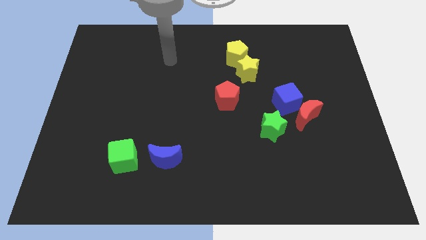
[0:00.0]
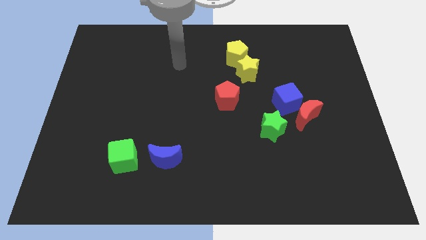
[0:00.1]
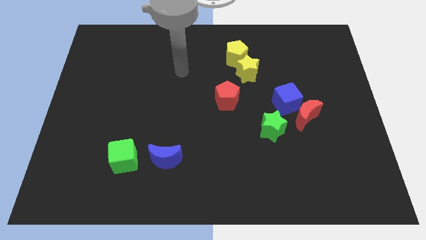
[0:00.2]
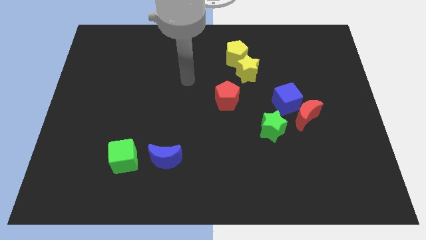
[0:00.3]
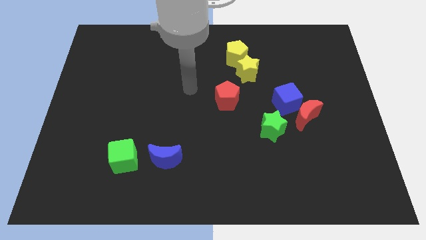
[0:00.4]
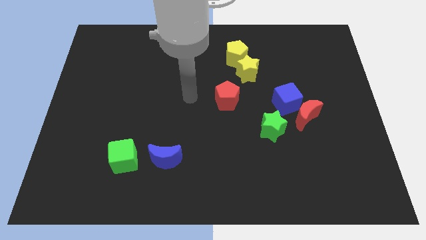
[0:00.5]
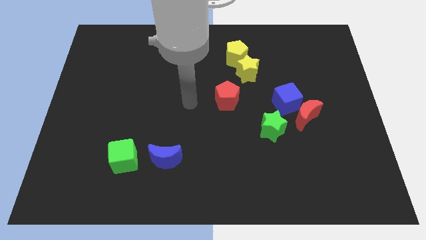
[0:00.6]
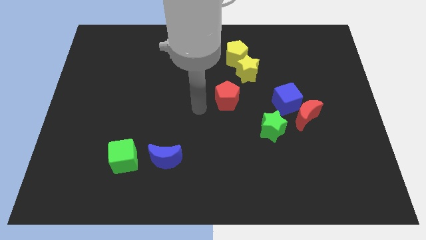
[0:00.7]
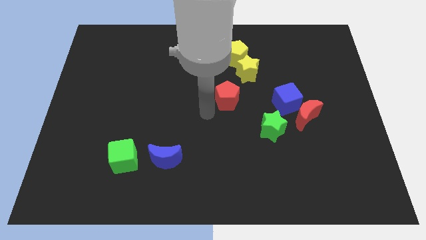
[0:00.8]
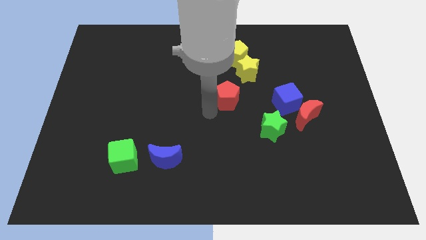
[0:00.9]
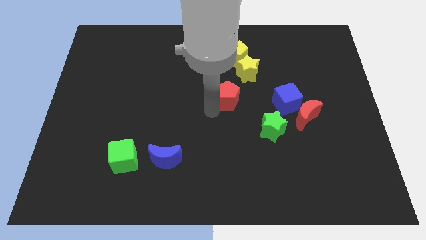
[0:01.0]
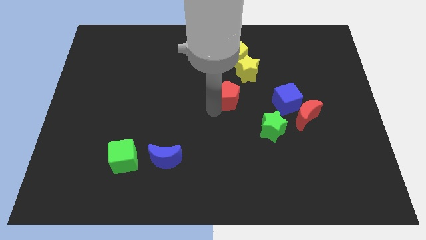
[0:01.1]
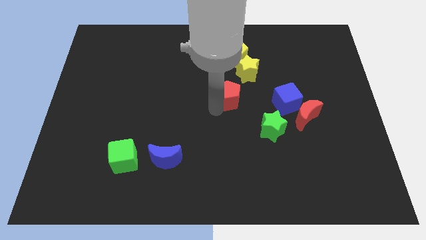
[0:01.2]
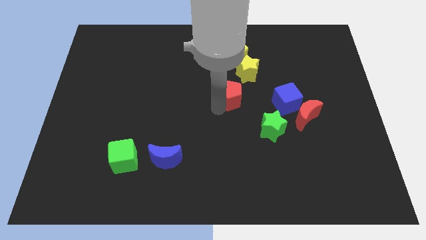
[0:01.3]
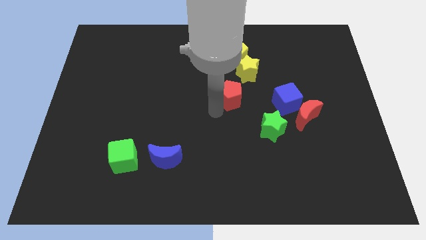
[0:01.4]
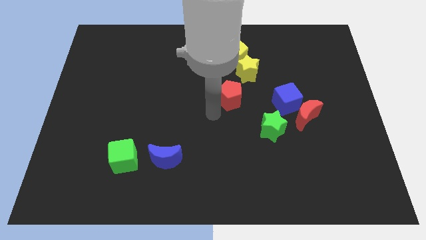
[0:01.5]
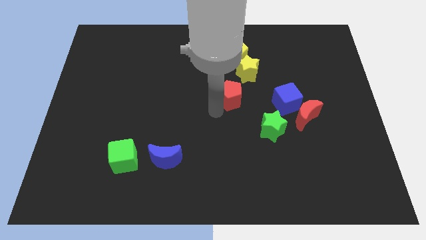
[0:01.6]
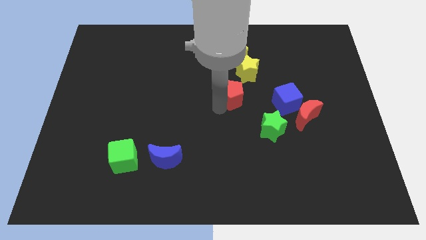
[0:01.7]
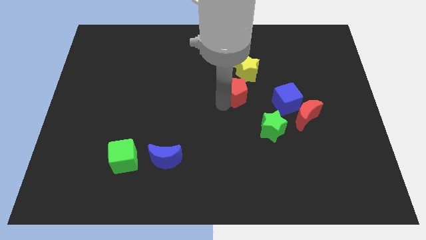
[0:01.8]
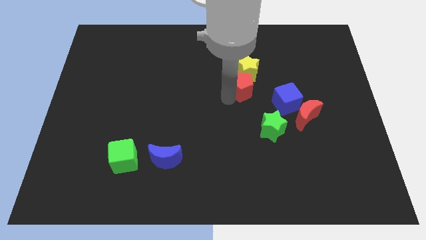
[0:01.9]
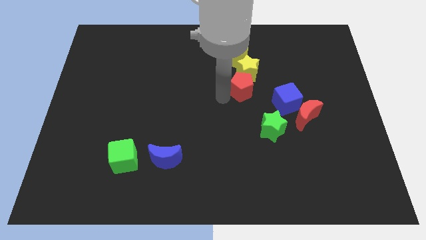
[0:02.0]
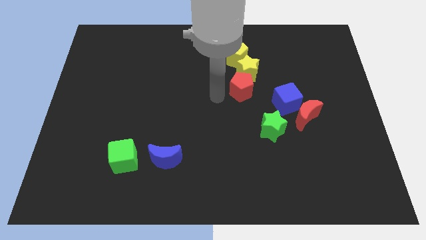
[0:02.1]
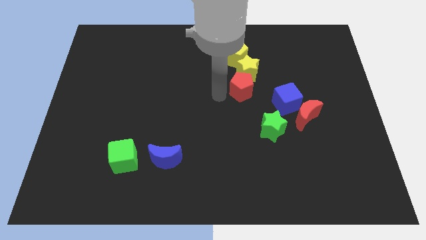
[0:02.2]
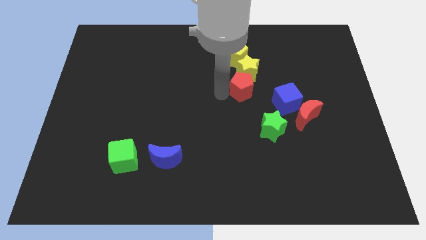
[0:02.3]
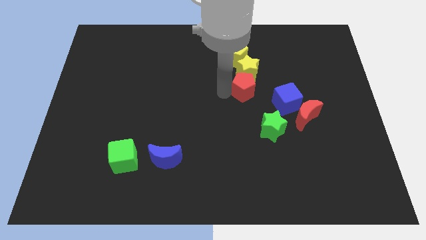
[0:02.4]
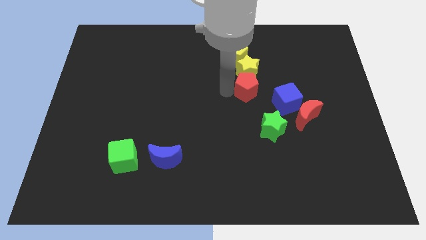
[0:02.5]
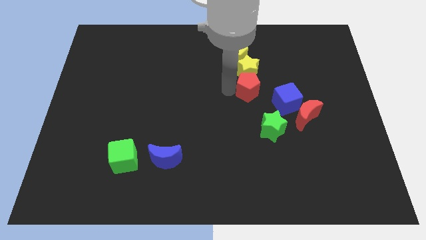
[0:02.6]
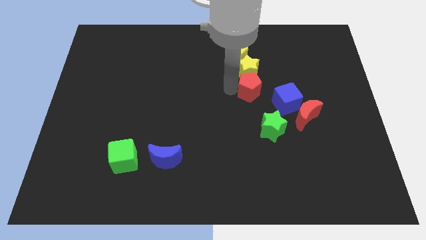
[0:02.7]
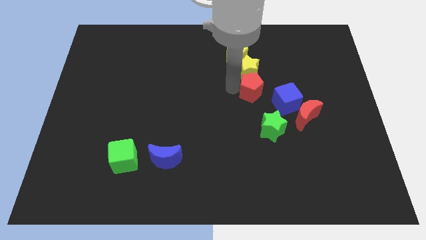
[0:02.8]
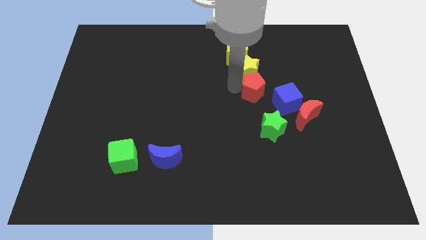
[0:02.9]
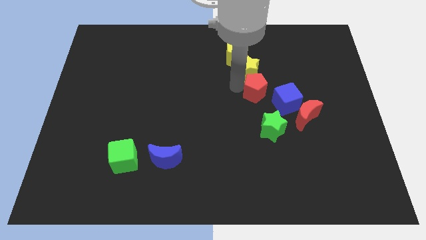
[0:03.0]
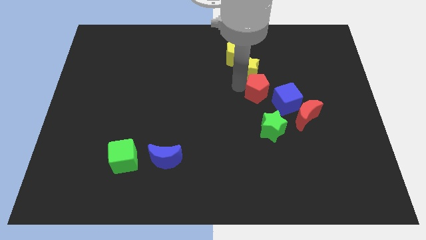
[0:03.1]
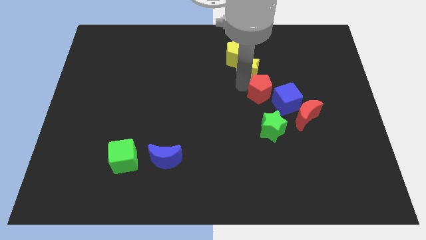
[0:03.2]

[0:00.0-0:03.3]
move the red pentagon a little bit upwards and to the right diagonally

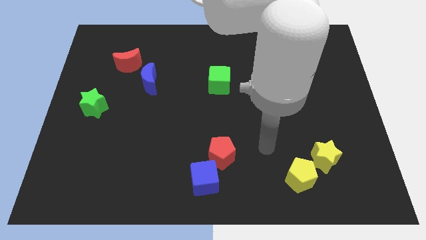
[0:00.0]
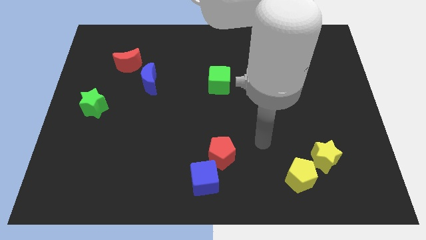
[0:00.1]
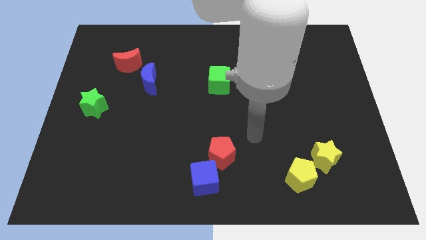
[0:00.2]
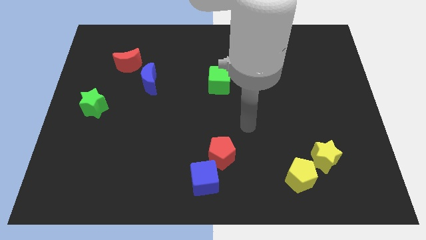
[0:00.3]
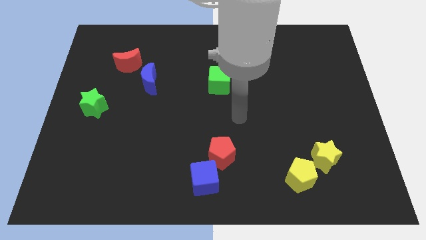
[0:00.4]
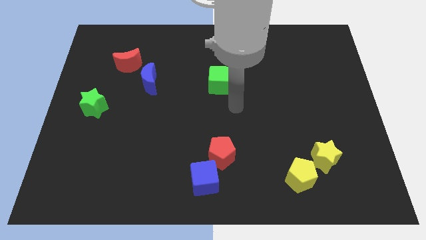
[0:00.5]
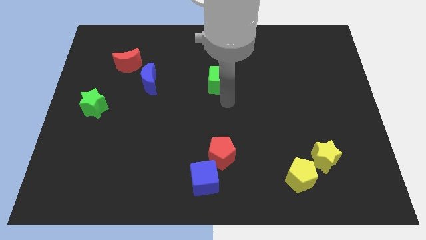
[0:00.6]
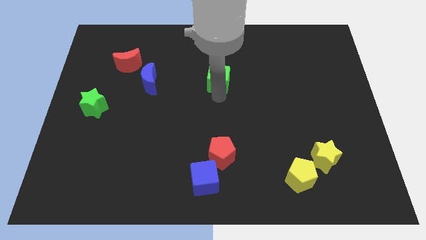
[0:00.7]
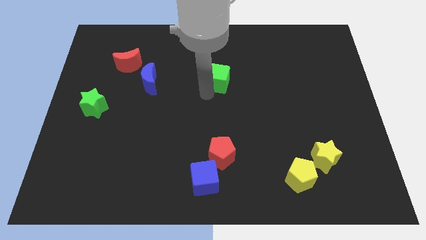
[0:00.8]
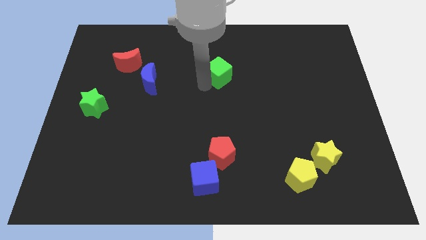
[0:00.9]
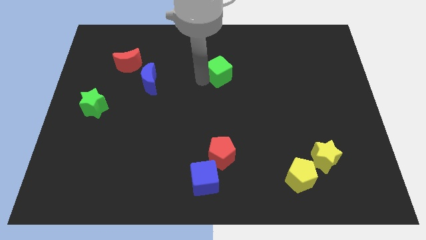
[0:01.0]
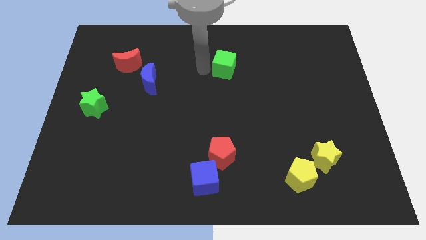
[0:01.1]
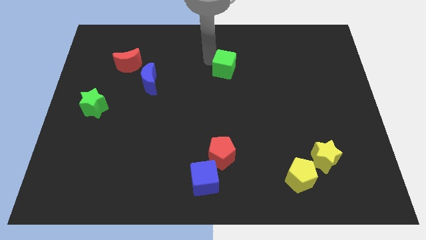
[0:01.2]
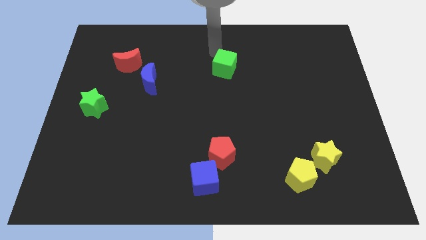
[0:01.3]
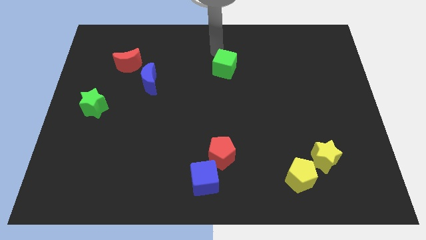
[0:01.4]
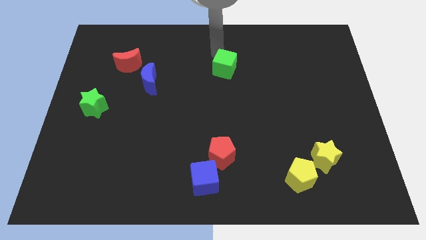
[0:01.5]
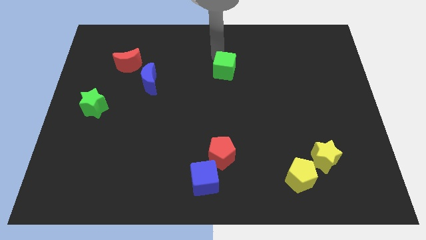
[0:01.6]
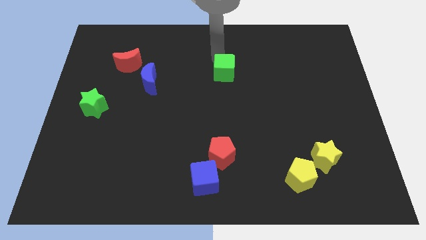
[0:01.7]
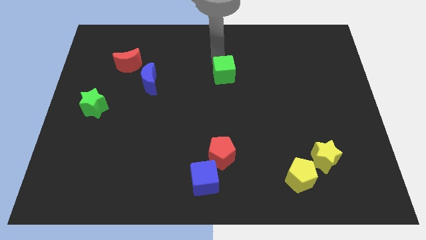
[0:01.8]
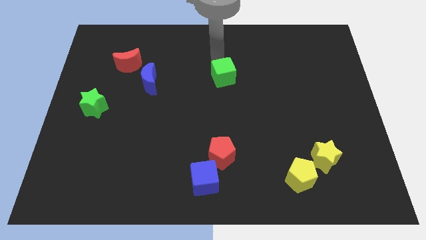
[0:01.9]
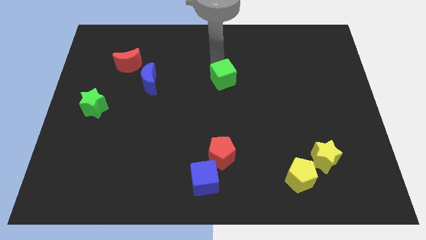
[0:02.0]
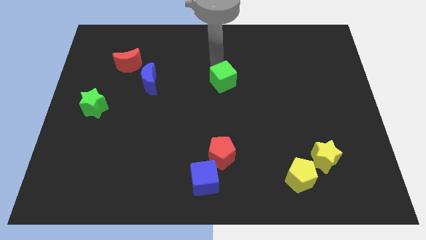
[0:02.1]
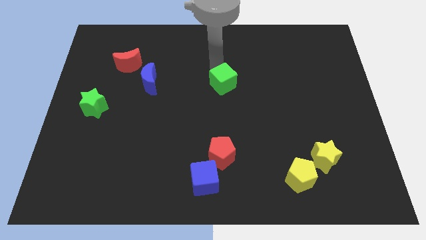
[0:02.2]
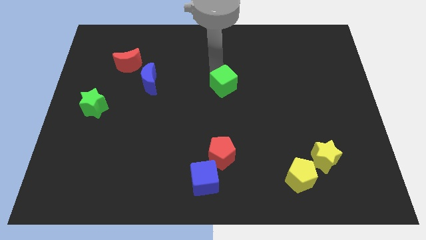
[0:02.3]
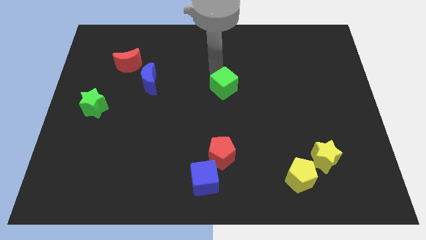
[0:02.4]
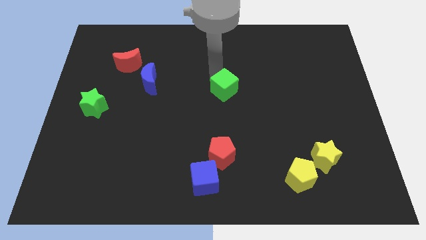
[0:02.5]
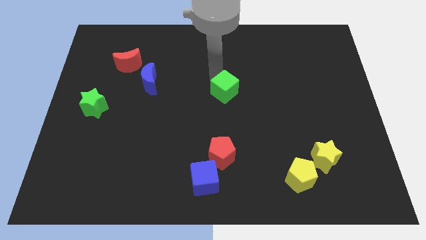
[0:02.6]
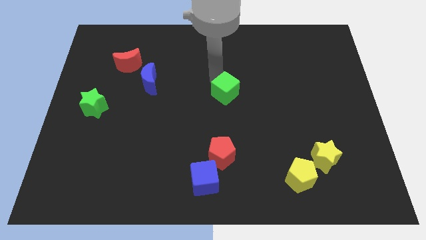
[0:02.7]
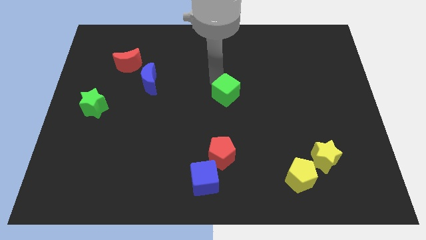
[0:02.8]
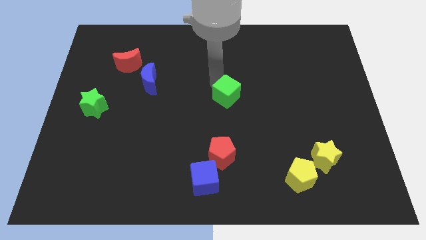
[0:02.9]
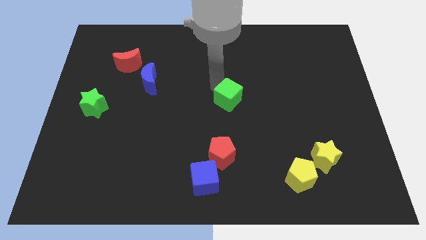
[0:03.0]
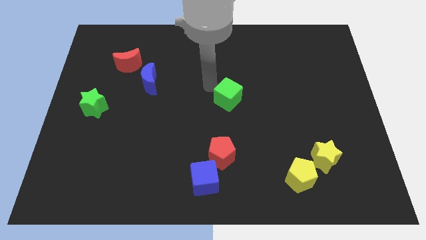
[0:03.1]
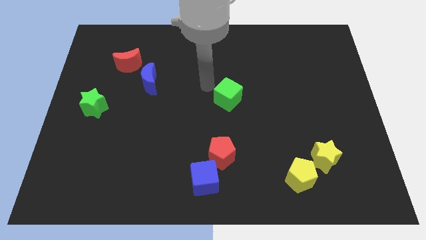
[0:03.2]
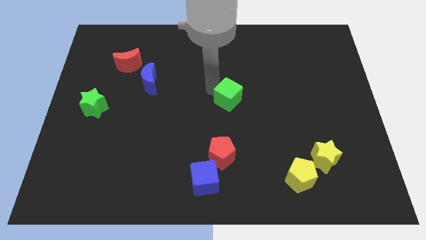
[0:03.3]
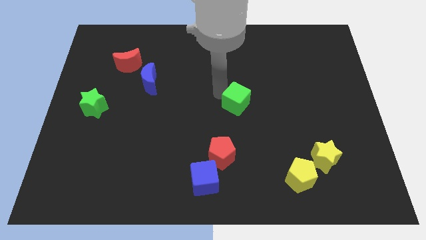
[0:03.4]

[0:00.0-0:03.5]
slightly slide the green cube downwards and then to the right

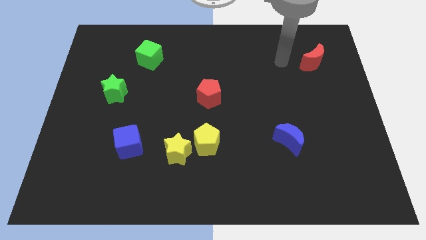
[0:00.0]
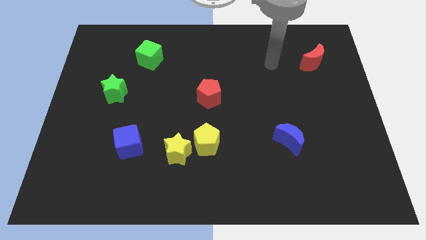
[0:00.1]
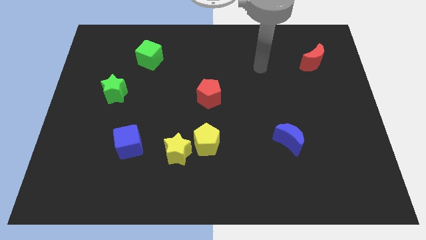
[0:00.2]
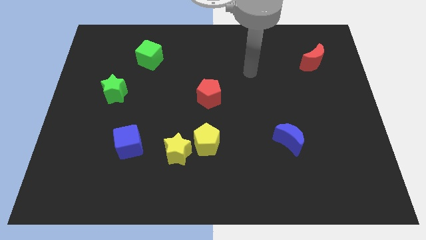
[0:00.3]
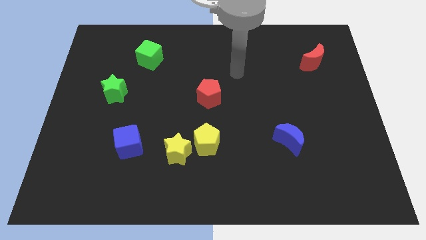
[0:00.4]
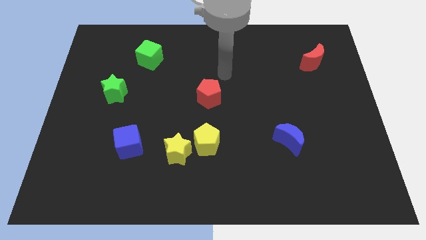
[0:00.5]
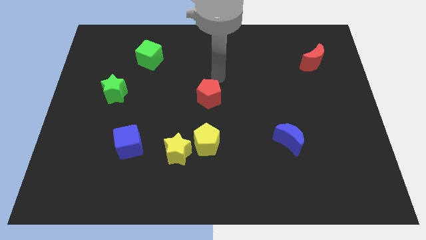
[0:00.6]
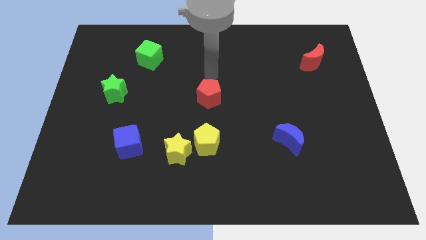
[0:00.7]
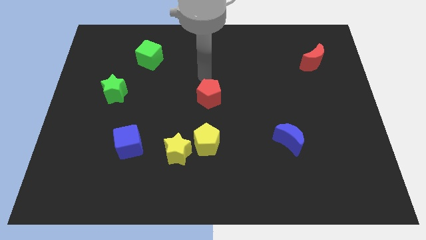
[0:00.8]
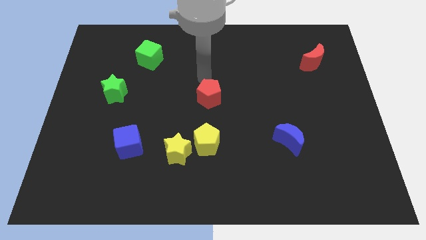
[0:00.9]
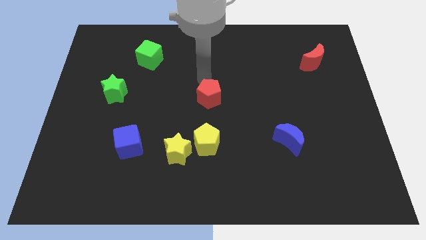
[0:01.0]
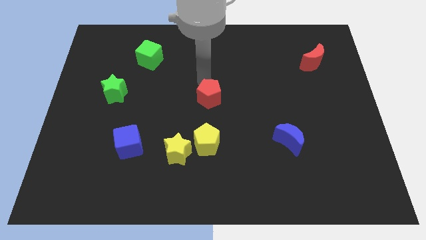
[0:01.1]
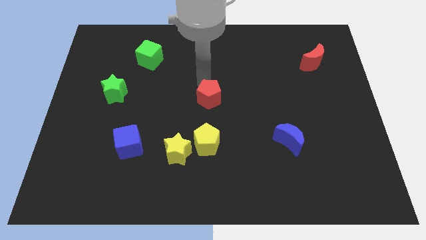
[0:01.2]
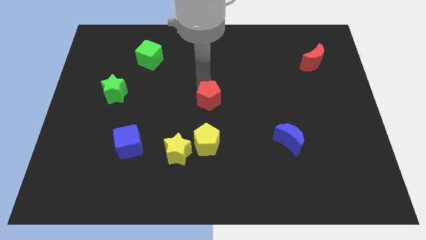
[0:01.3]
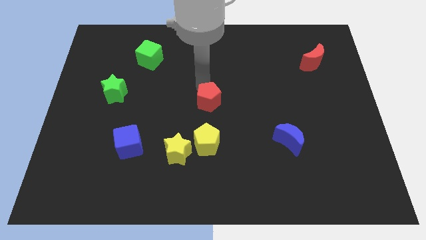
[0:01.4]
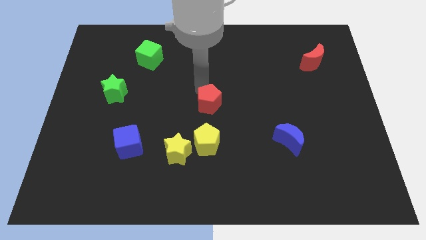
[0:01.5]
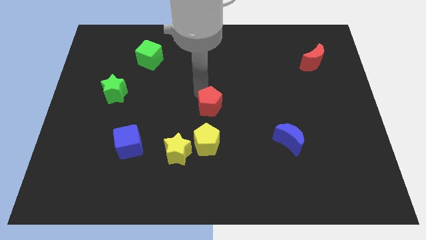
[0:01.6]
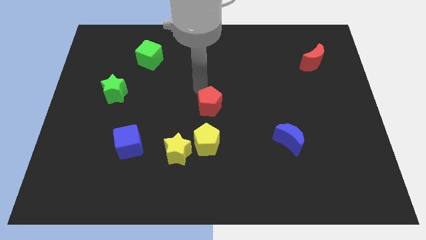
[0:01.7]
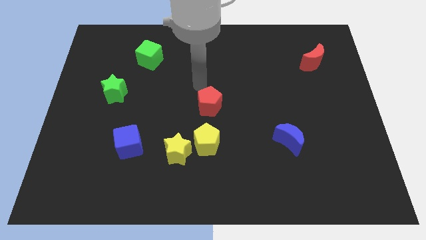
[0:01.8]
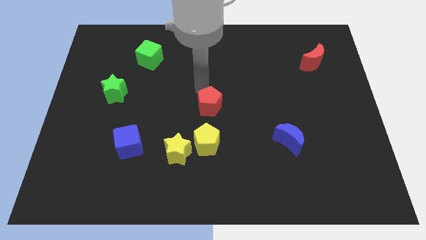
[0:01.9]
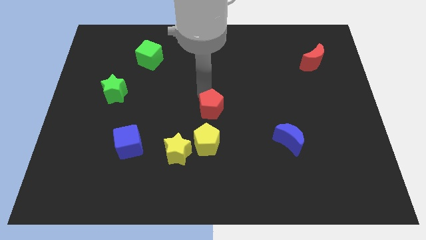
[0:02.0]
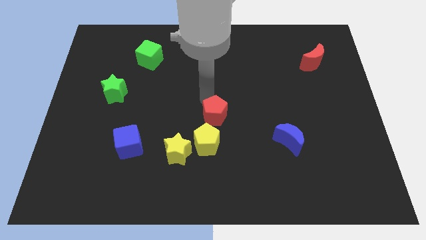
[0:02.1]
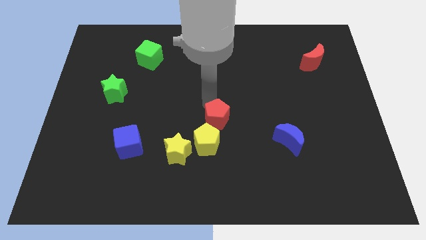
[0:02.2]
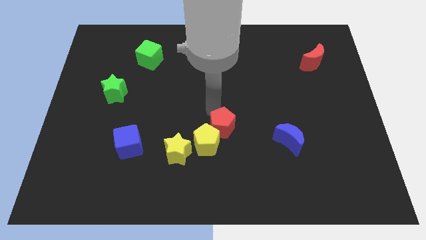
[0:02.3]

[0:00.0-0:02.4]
slightly move the red pentagon downwards
